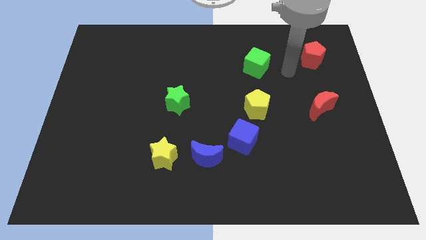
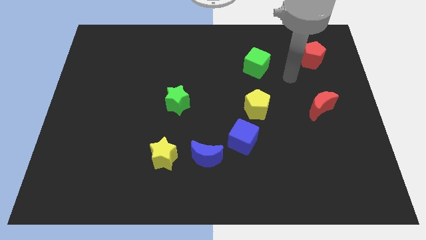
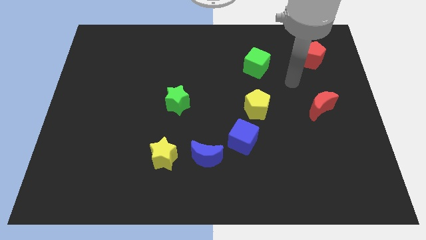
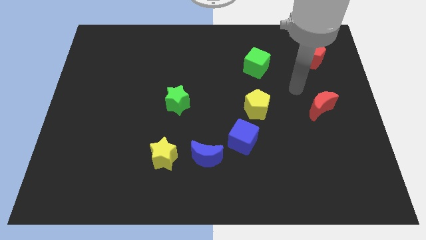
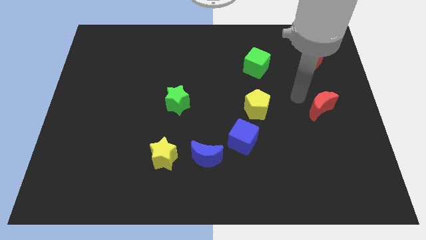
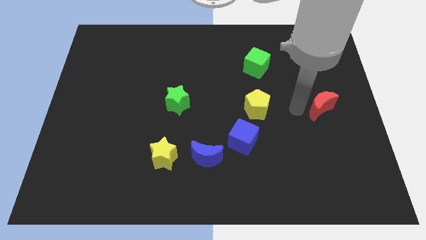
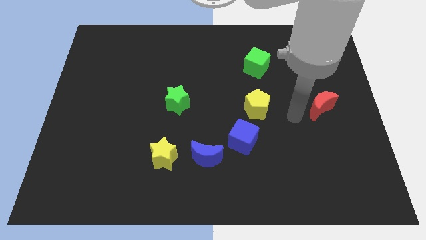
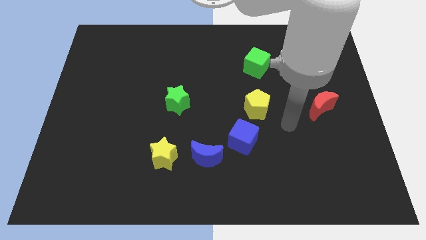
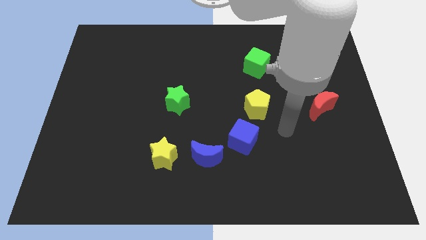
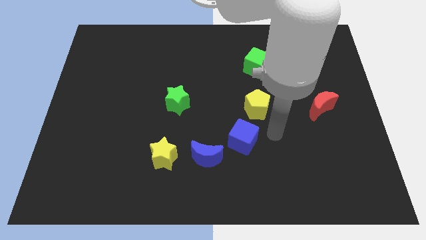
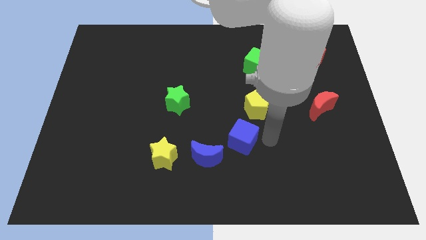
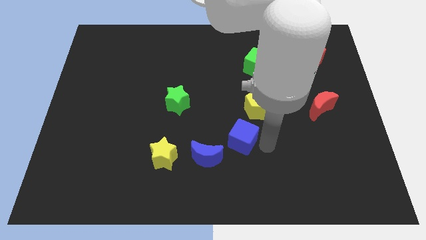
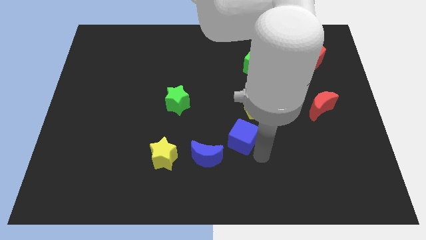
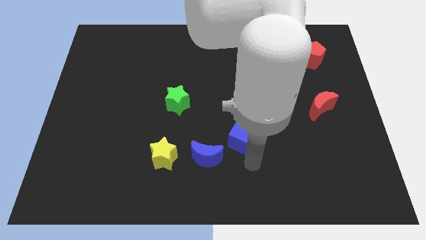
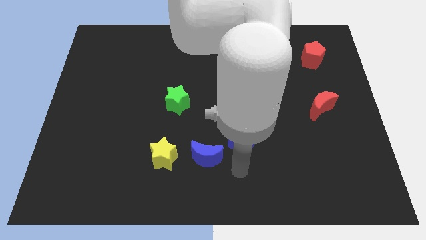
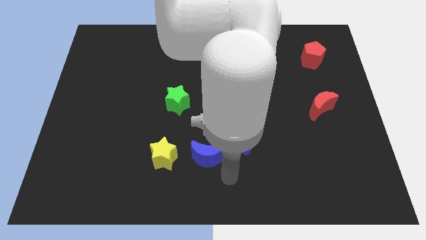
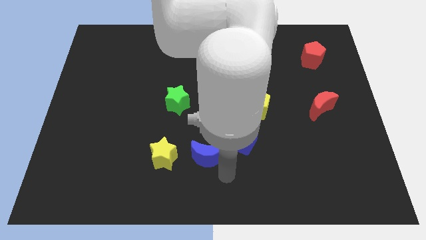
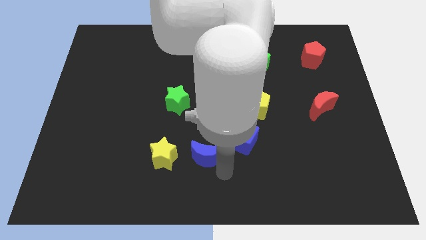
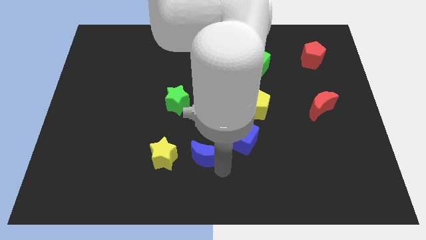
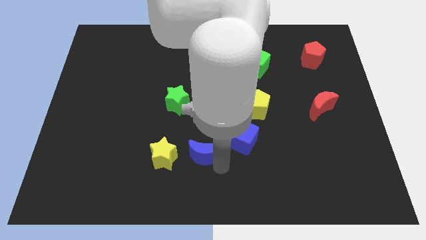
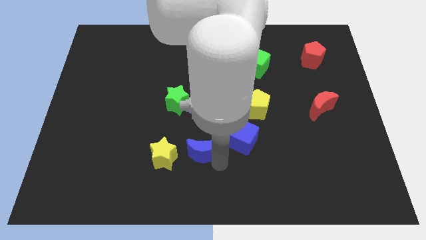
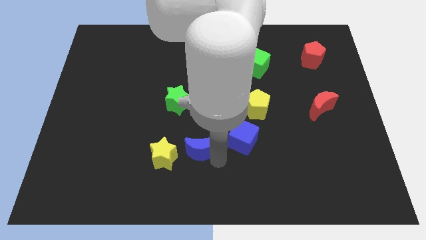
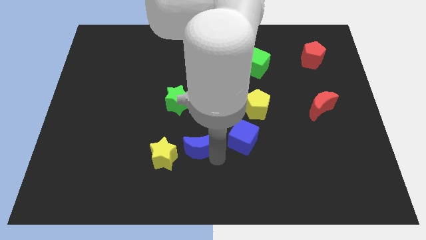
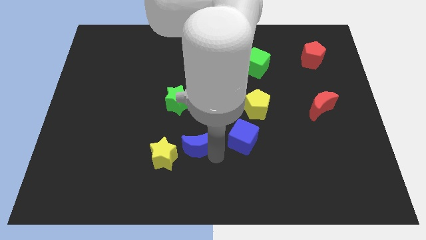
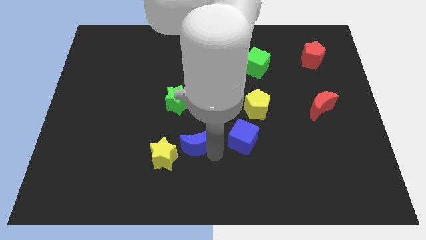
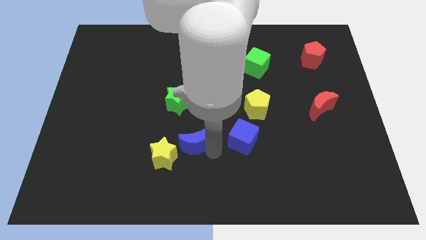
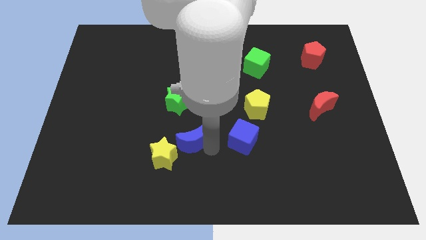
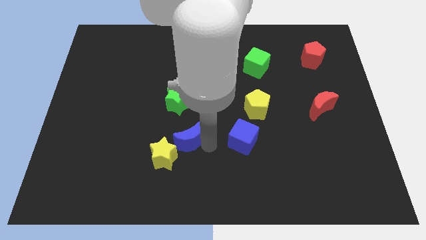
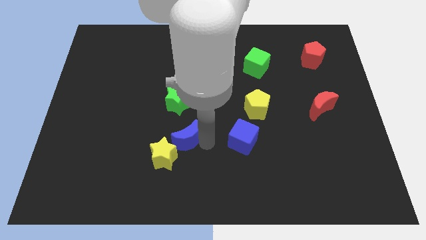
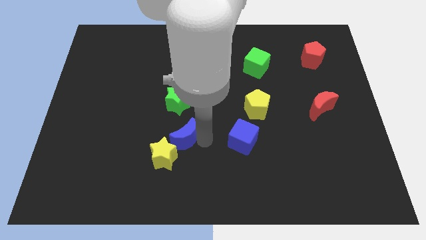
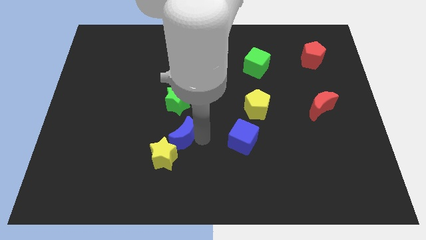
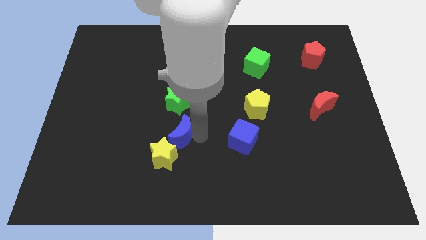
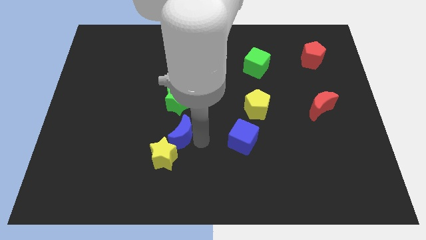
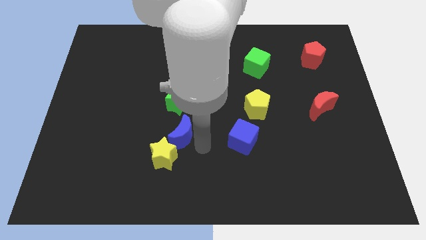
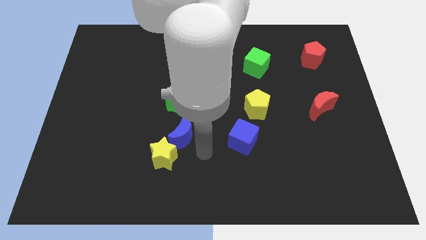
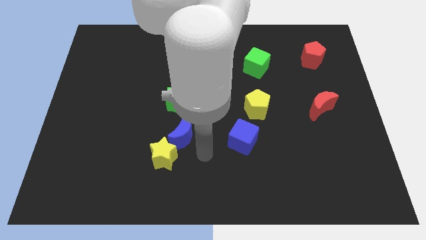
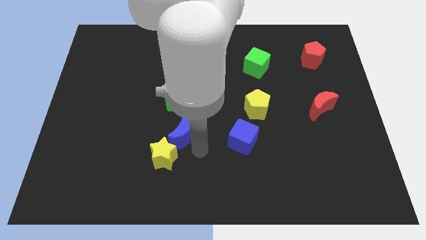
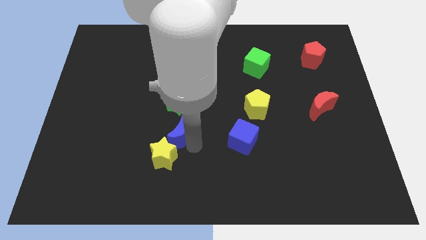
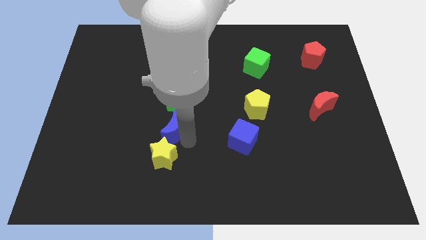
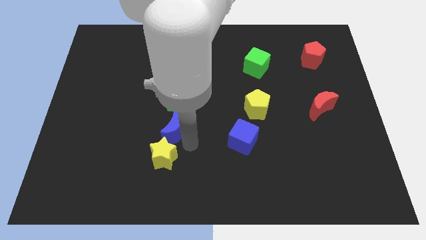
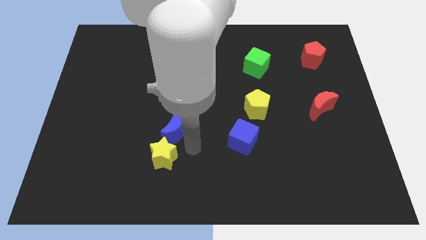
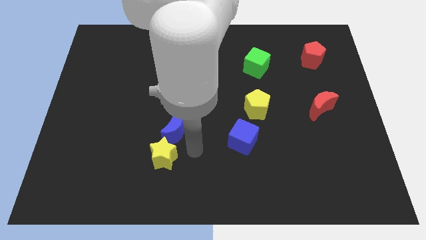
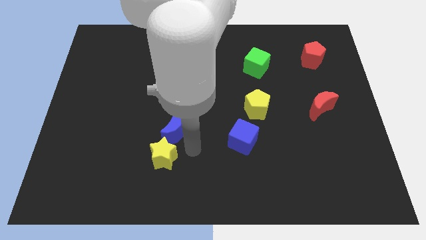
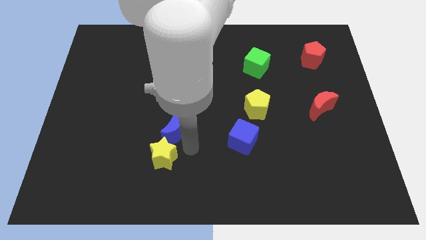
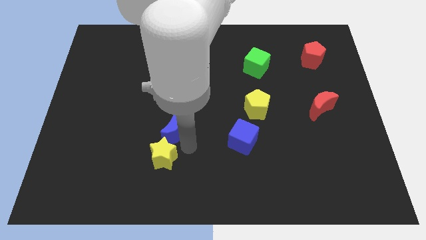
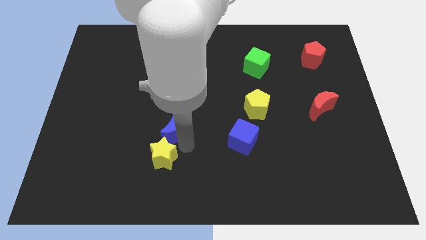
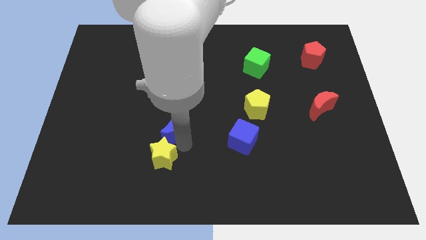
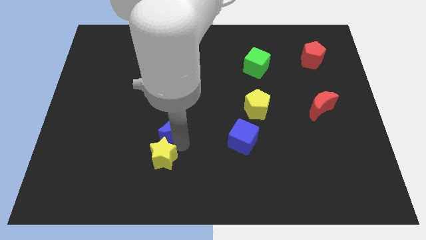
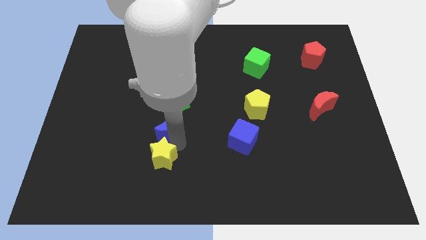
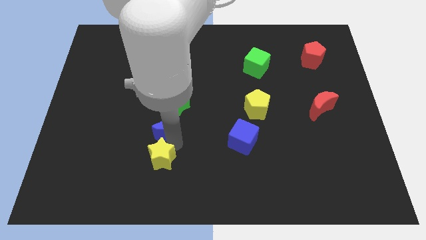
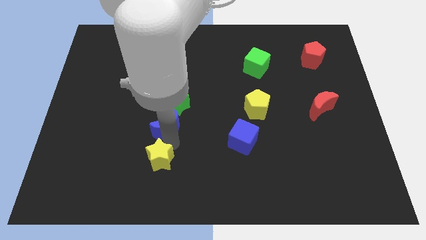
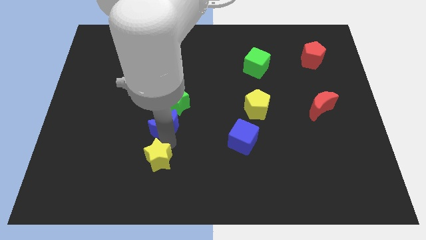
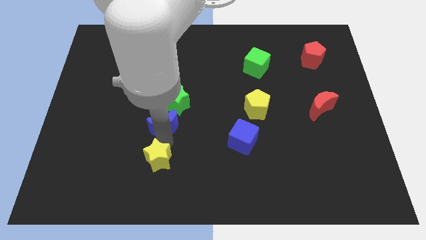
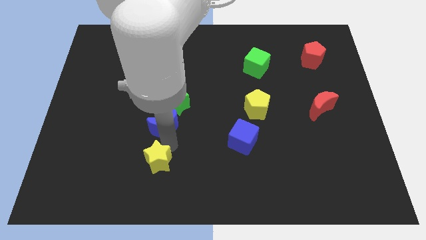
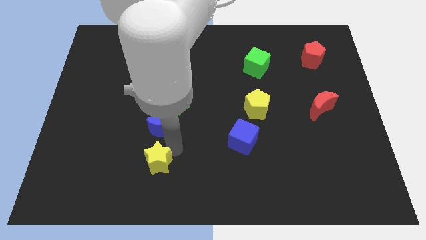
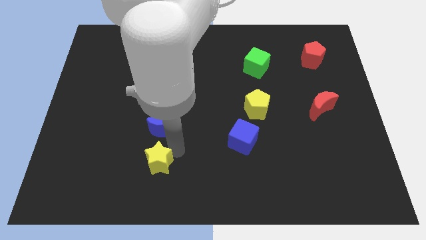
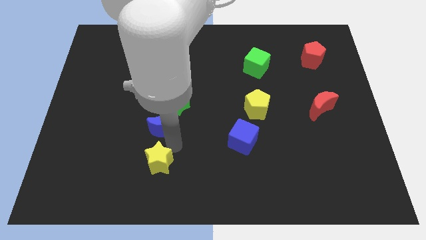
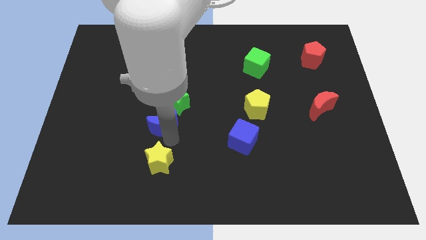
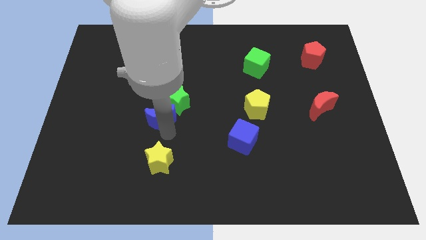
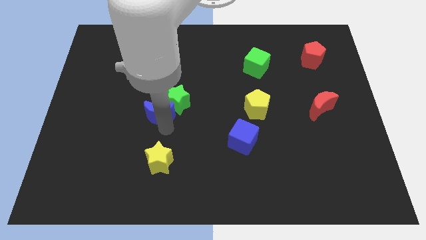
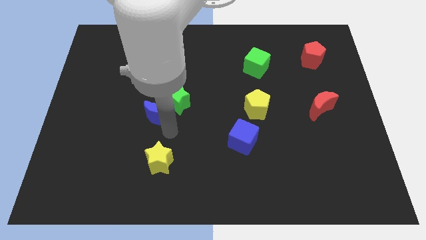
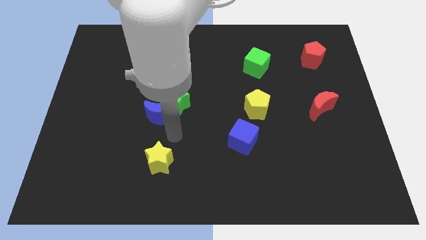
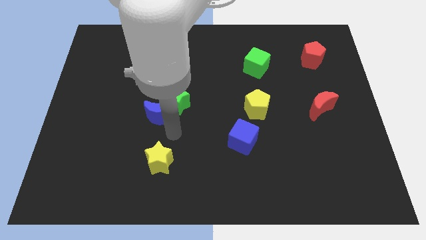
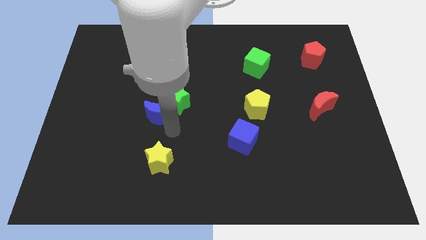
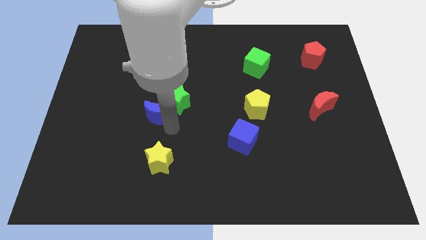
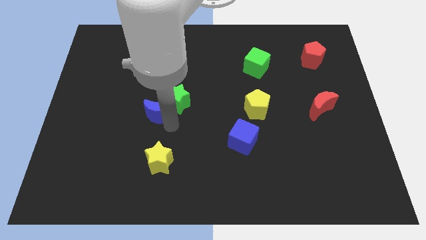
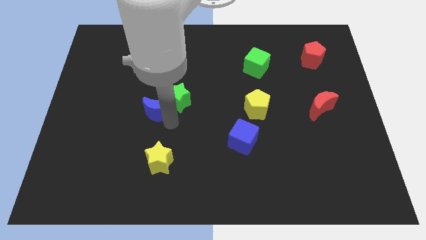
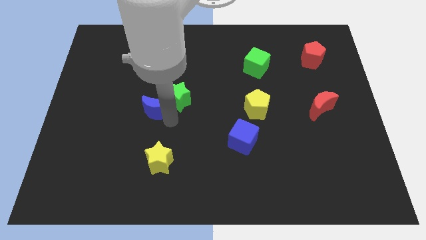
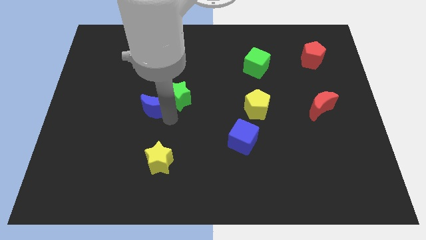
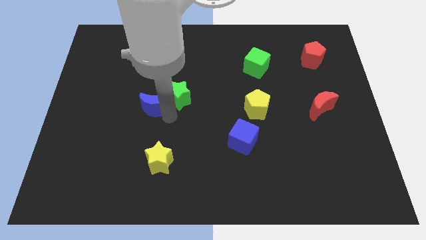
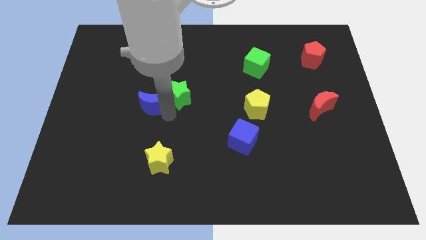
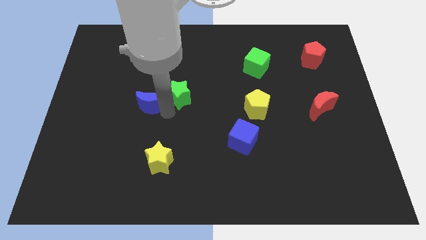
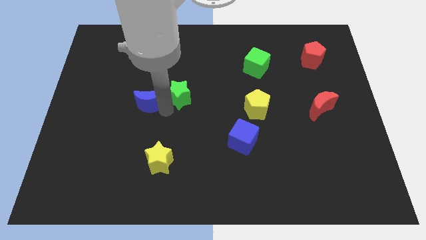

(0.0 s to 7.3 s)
slide the blue moon diagonally upwards and left

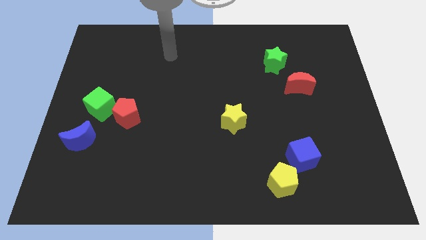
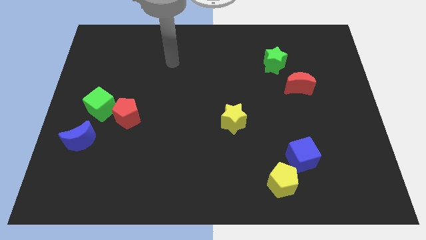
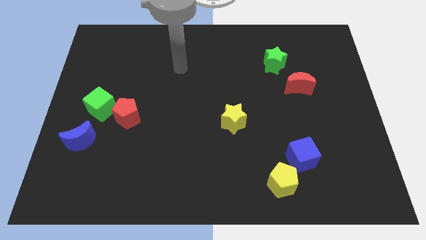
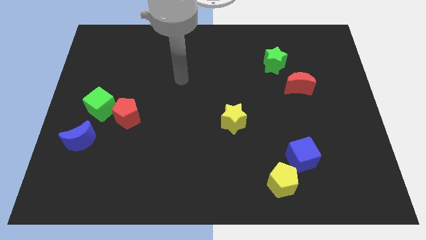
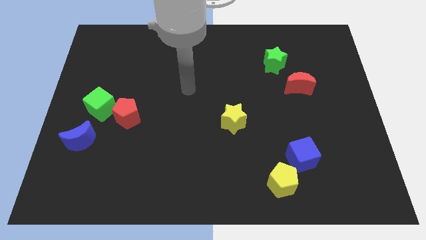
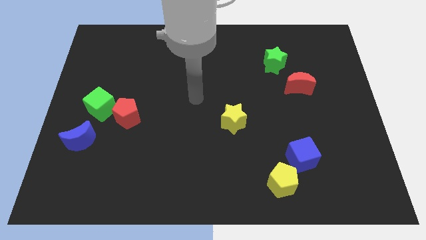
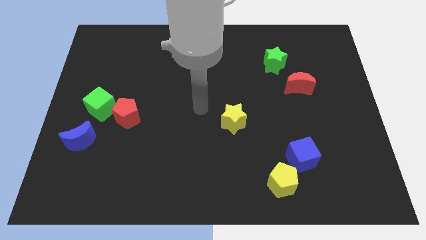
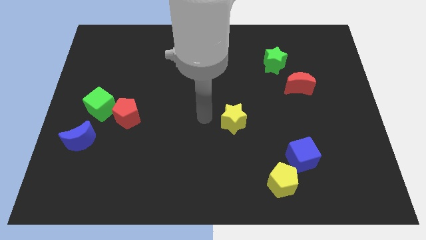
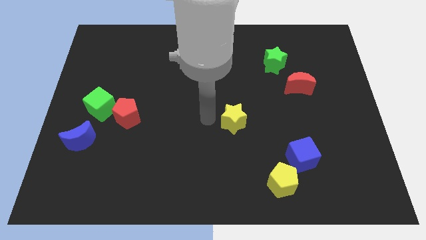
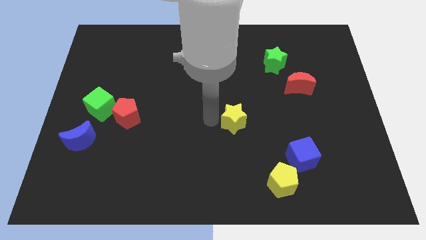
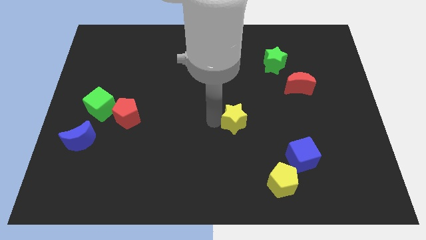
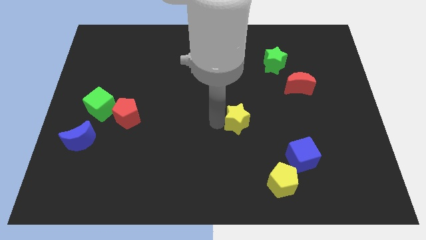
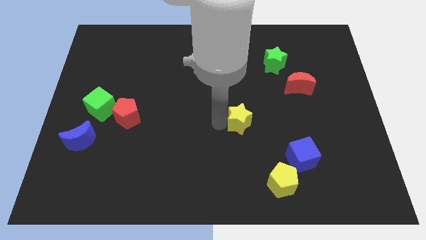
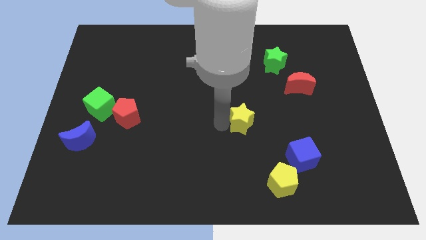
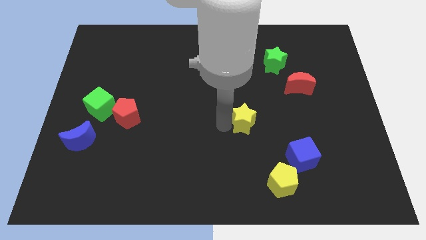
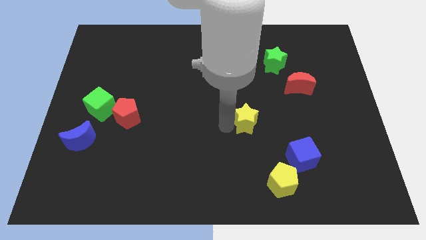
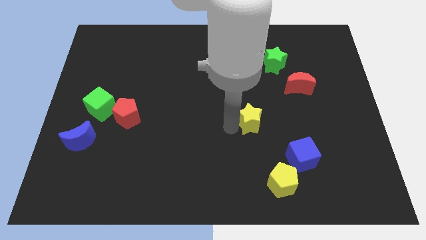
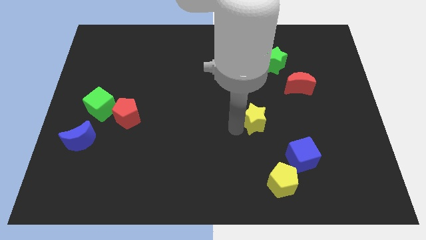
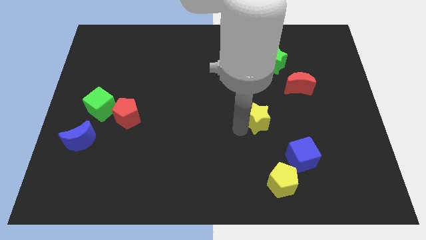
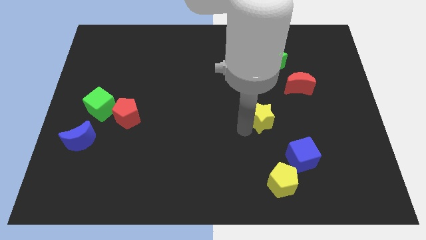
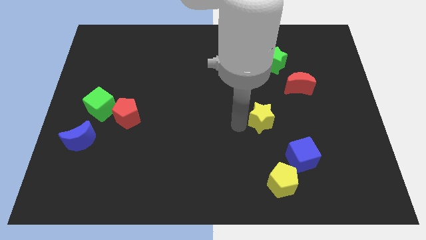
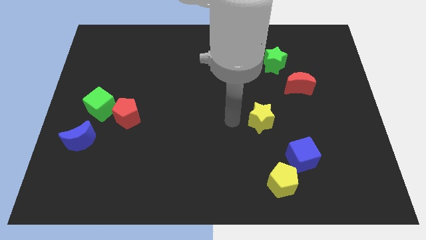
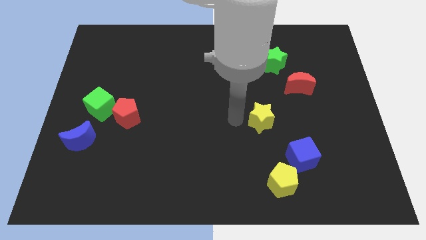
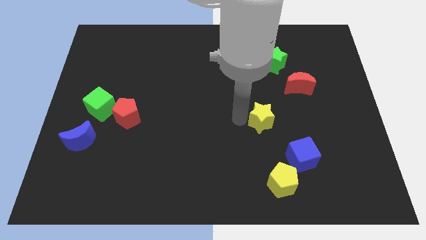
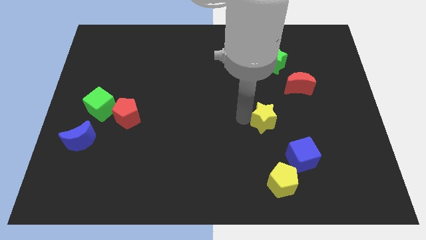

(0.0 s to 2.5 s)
slide the yellow star slightly right
